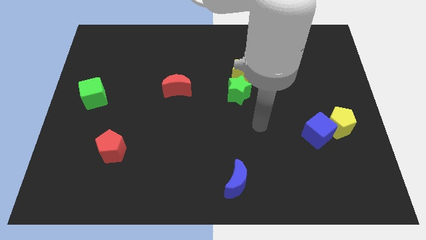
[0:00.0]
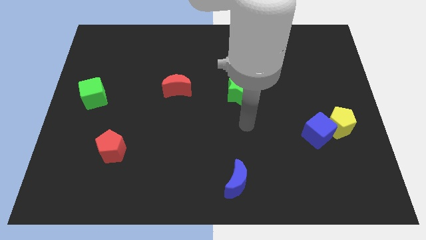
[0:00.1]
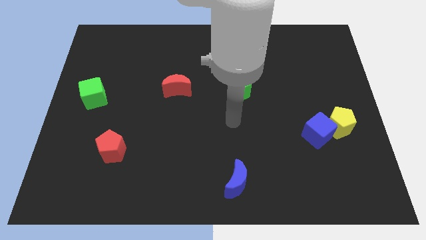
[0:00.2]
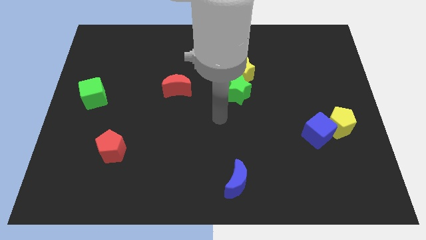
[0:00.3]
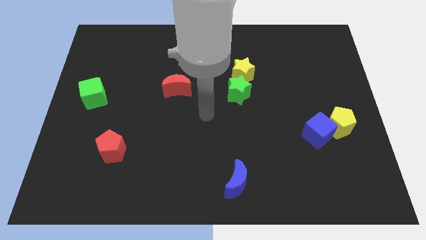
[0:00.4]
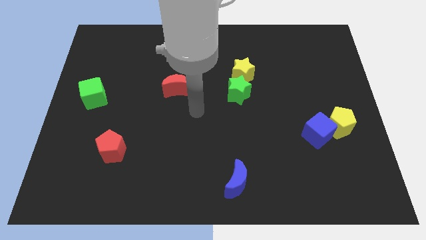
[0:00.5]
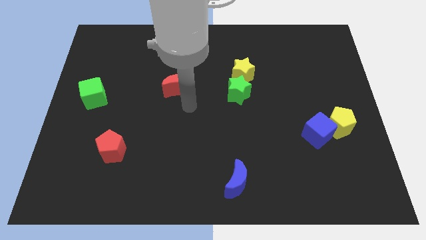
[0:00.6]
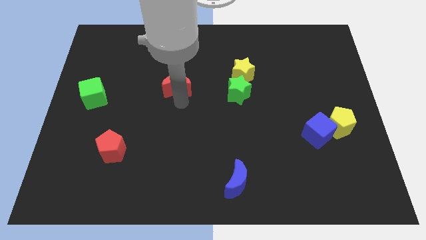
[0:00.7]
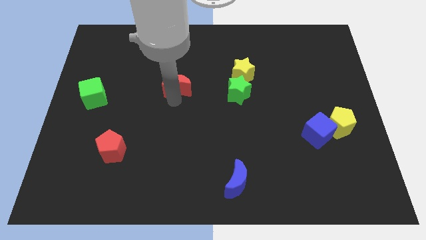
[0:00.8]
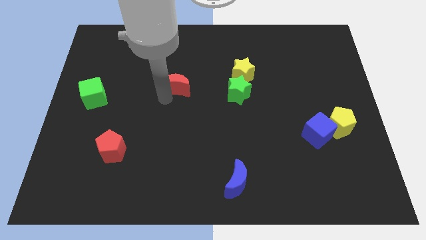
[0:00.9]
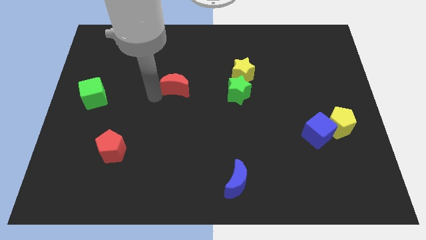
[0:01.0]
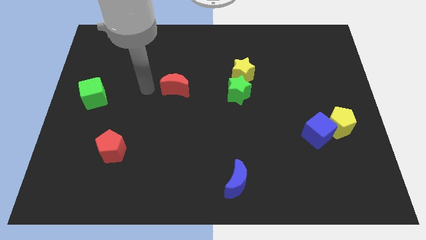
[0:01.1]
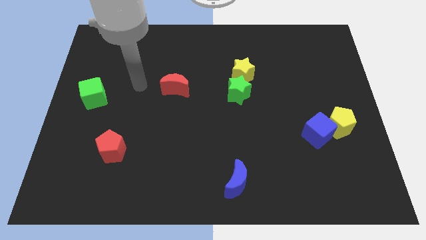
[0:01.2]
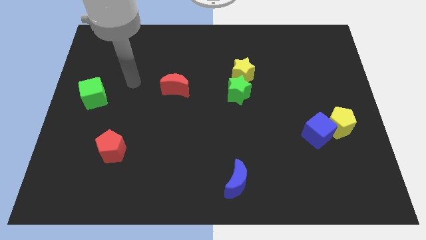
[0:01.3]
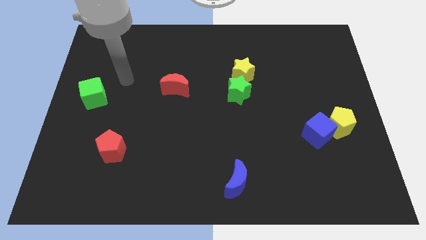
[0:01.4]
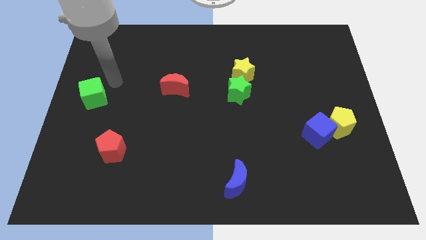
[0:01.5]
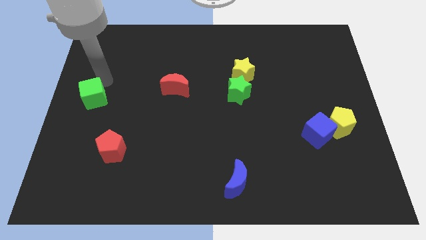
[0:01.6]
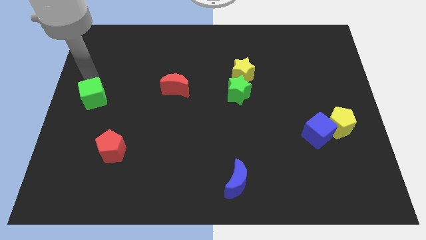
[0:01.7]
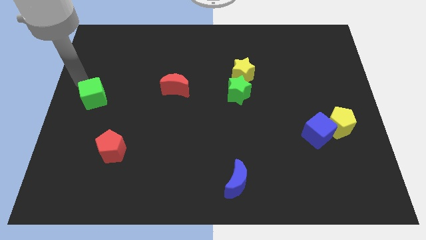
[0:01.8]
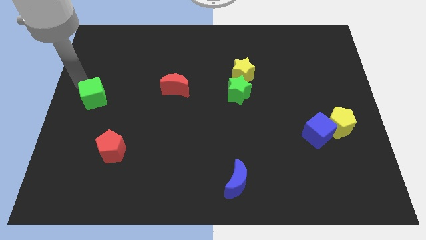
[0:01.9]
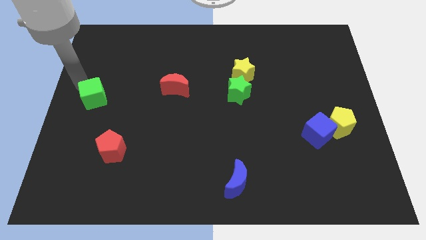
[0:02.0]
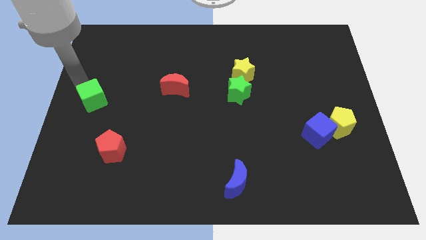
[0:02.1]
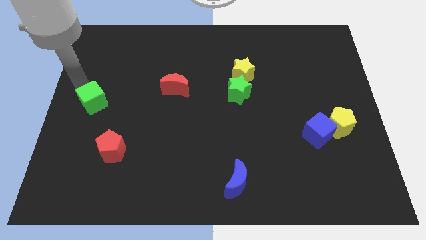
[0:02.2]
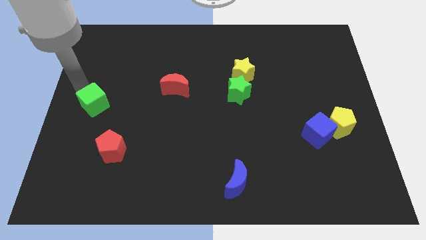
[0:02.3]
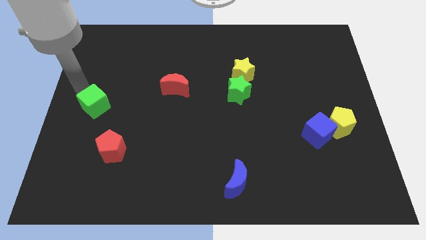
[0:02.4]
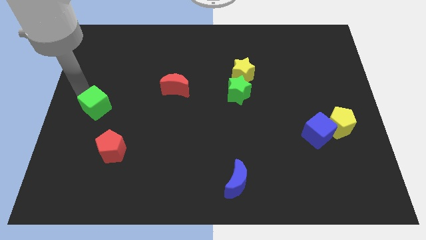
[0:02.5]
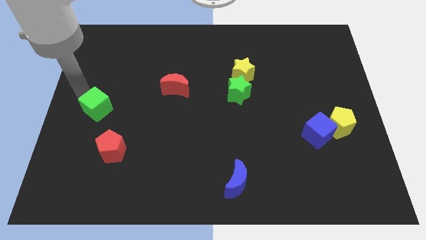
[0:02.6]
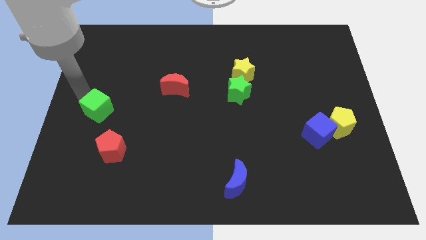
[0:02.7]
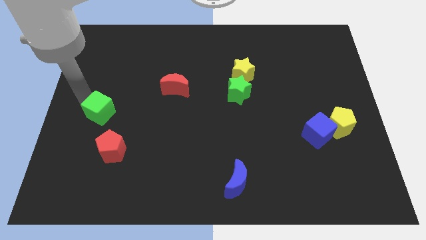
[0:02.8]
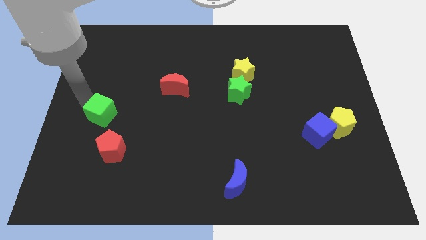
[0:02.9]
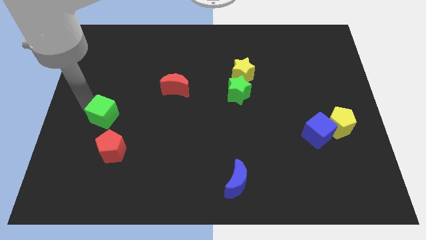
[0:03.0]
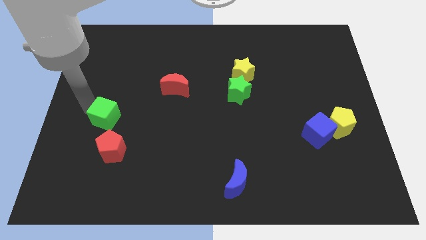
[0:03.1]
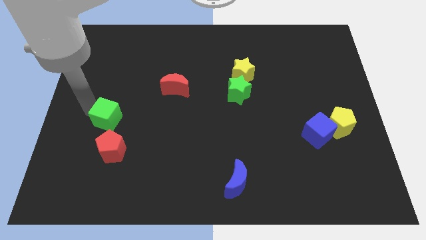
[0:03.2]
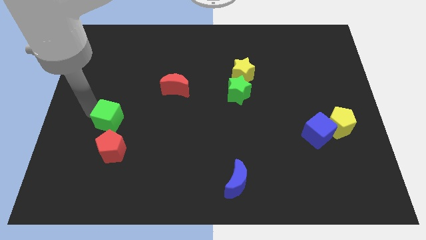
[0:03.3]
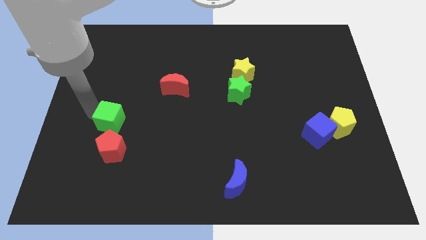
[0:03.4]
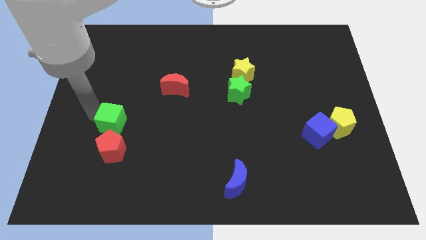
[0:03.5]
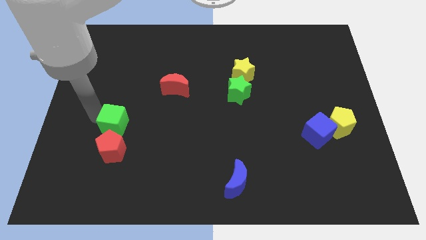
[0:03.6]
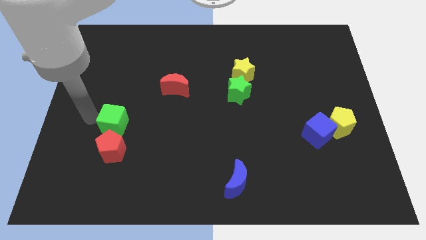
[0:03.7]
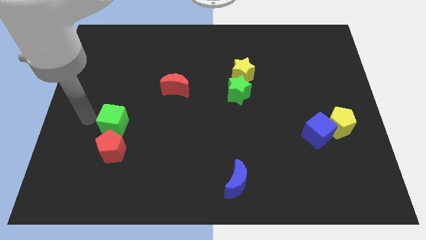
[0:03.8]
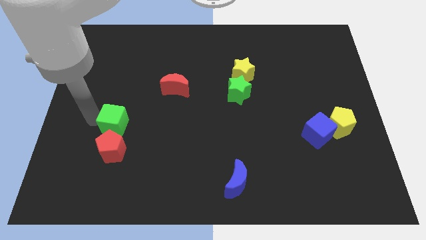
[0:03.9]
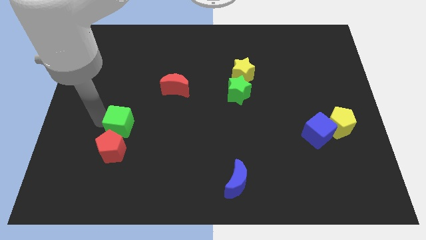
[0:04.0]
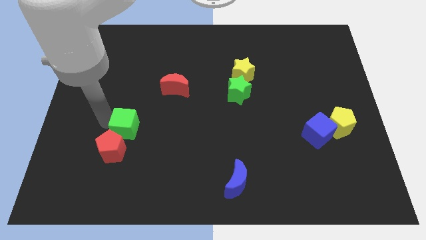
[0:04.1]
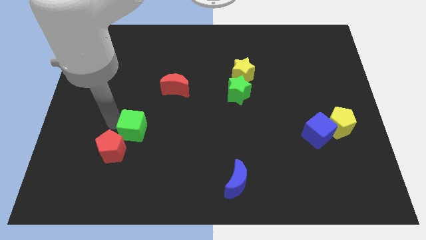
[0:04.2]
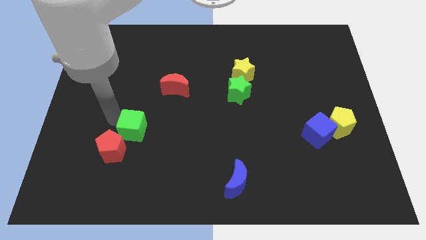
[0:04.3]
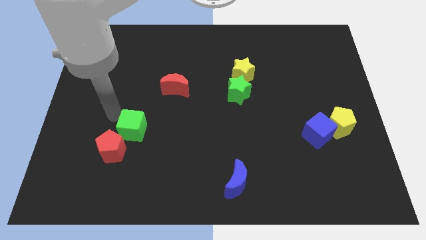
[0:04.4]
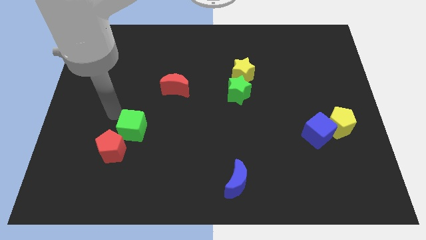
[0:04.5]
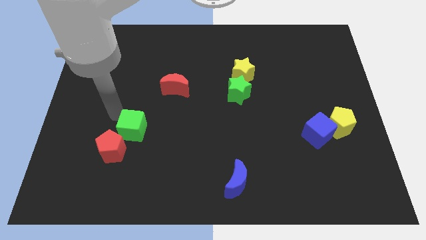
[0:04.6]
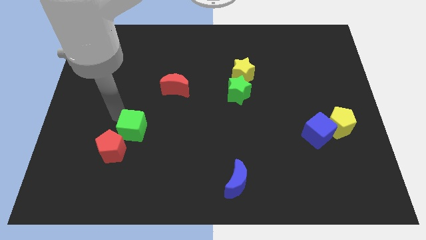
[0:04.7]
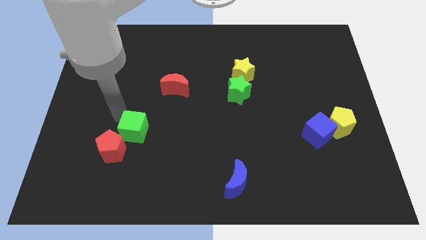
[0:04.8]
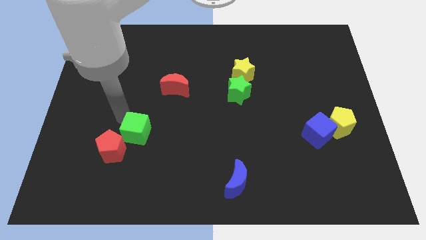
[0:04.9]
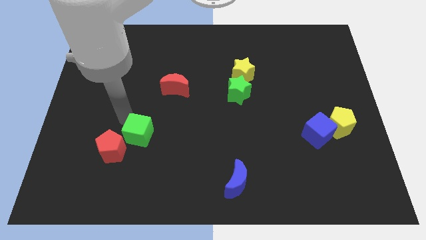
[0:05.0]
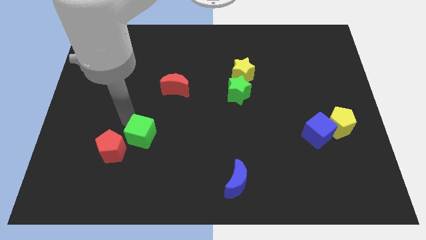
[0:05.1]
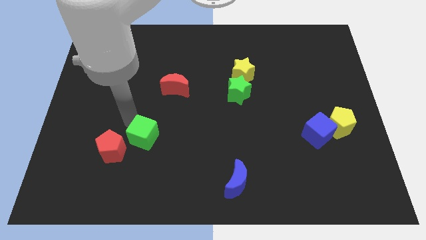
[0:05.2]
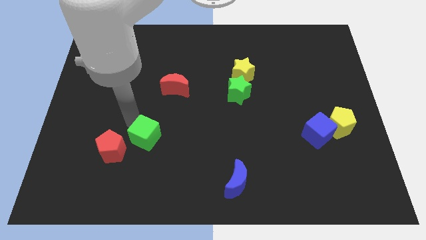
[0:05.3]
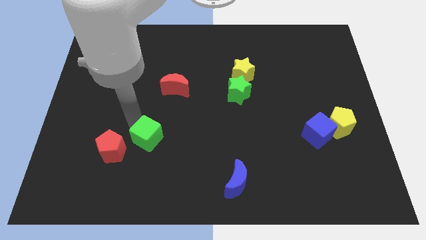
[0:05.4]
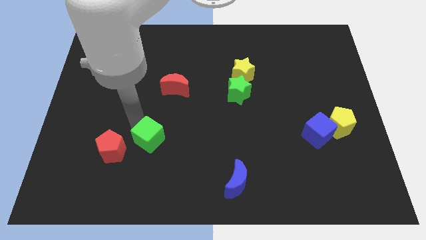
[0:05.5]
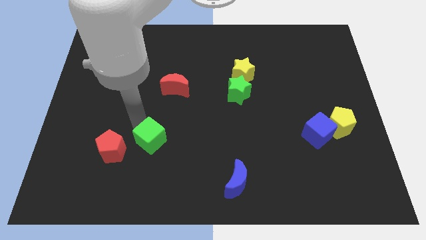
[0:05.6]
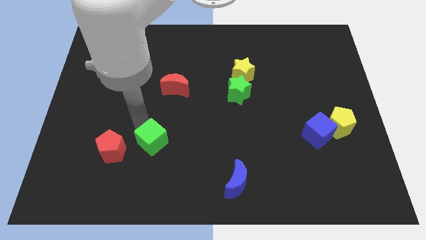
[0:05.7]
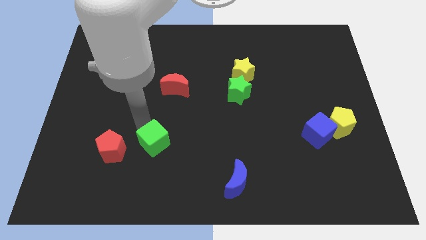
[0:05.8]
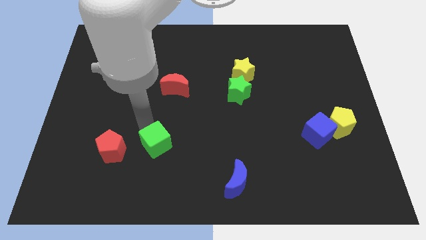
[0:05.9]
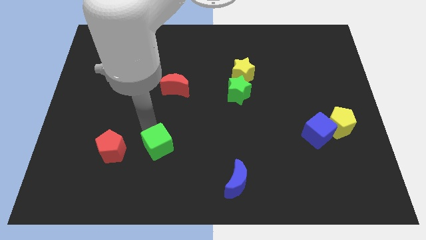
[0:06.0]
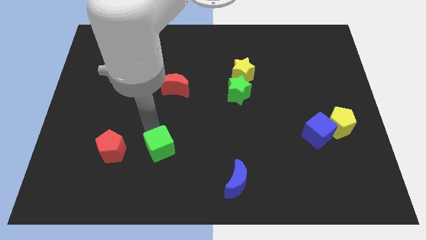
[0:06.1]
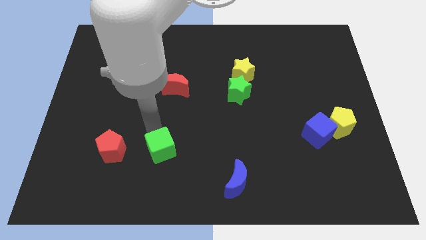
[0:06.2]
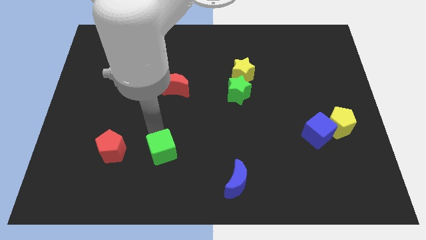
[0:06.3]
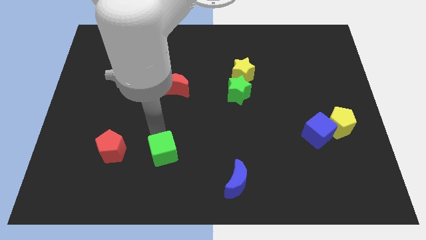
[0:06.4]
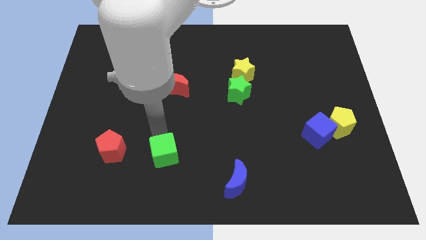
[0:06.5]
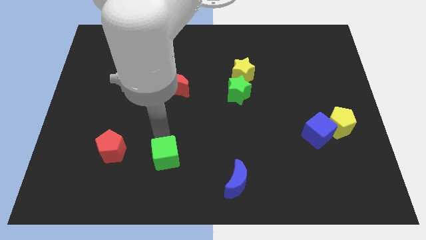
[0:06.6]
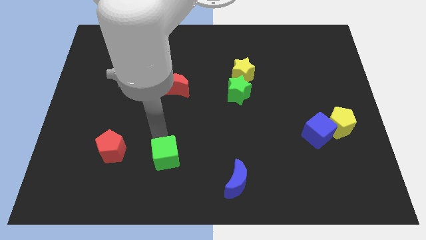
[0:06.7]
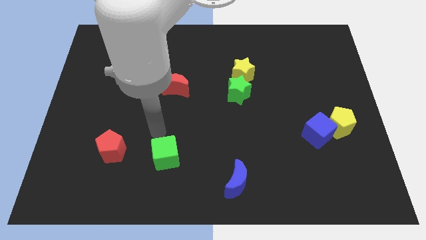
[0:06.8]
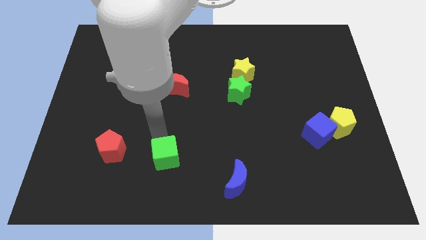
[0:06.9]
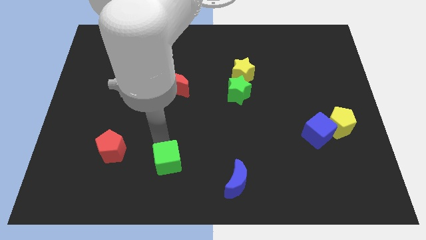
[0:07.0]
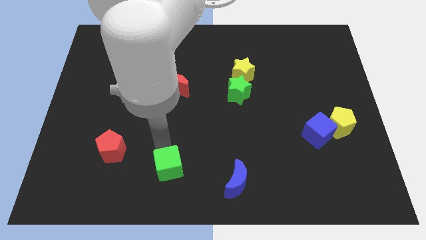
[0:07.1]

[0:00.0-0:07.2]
move the green cube to the bottom side
